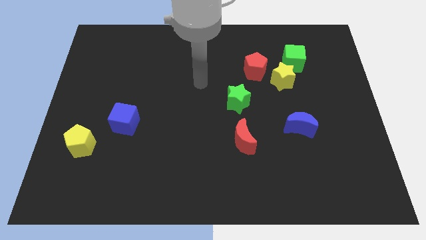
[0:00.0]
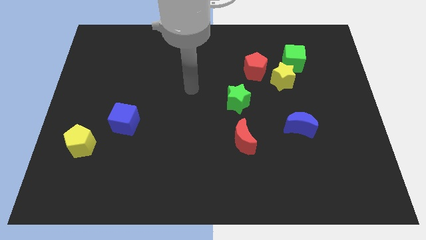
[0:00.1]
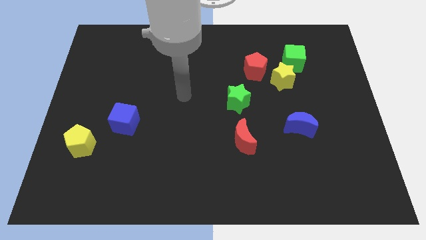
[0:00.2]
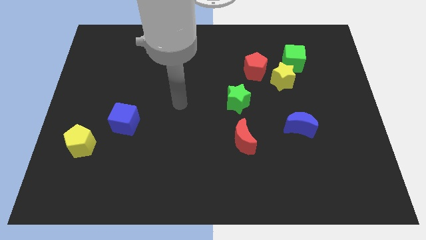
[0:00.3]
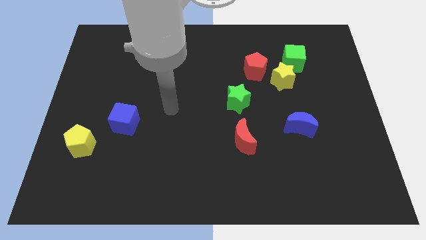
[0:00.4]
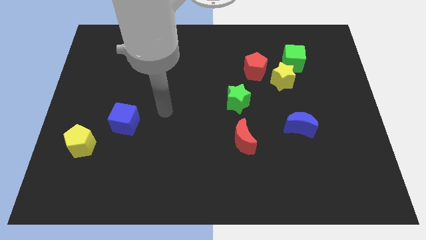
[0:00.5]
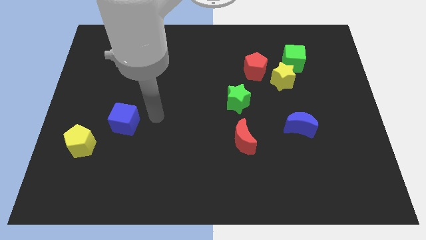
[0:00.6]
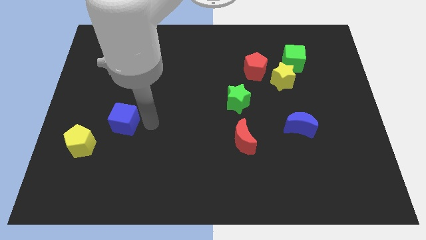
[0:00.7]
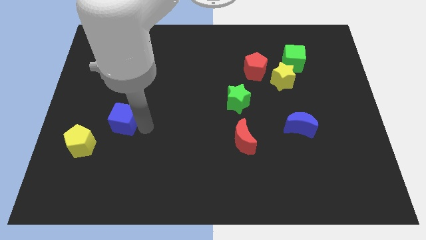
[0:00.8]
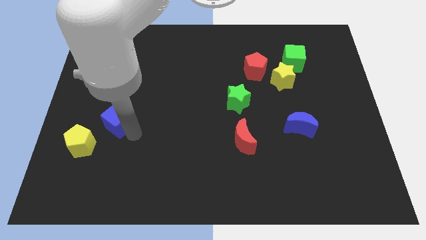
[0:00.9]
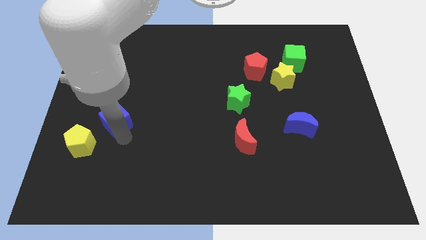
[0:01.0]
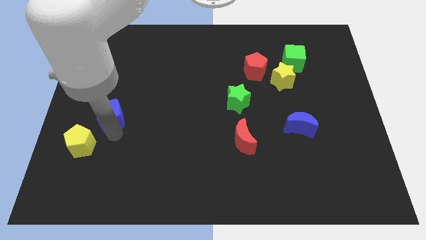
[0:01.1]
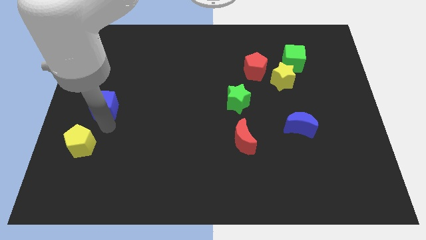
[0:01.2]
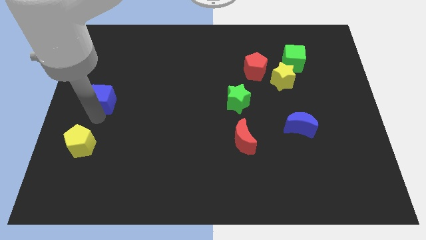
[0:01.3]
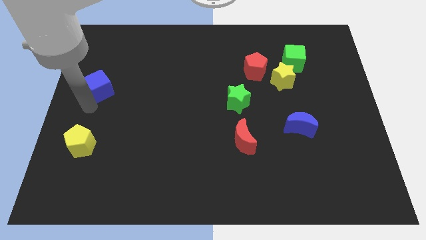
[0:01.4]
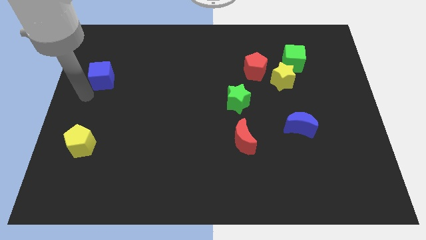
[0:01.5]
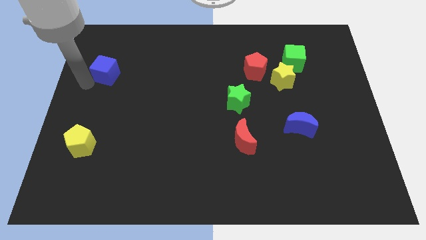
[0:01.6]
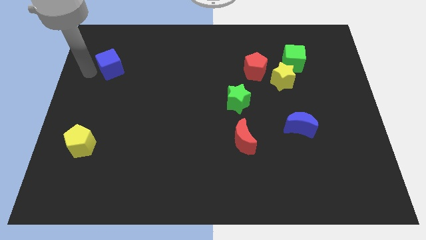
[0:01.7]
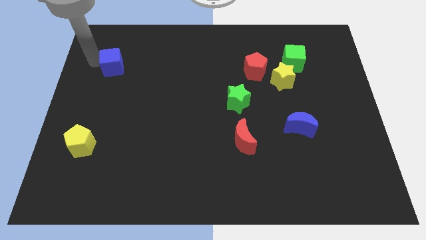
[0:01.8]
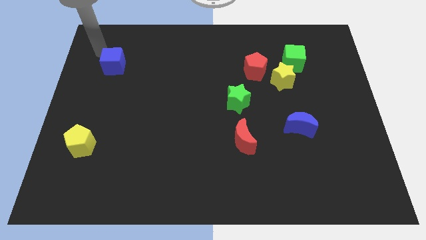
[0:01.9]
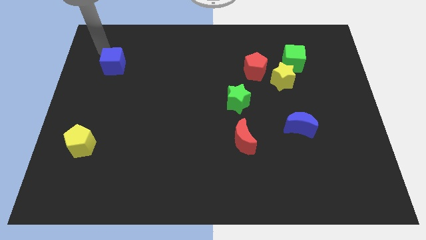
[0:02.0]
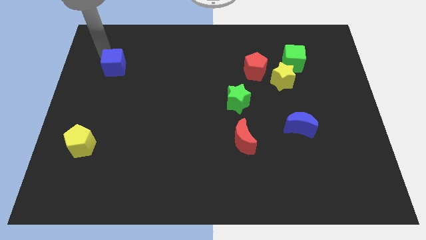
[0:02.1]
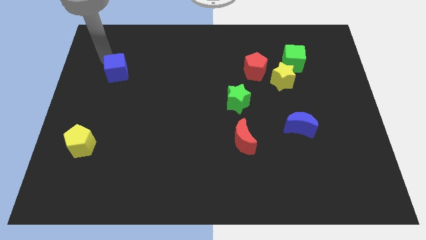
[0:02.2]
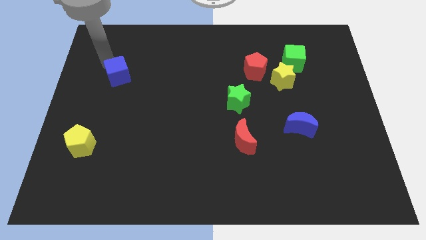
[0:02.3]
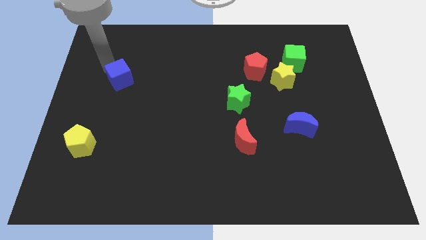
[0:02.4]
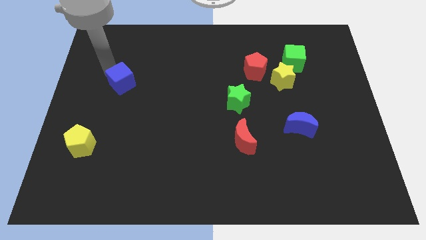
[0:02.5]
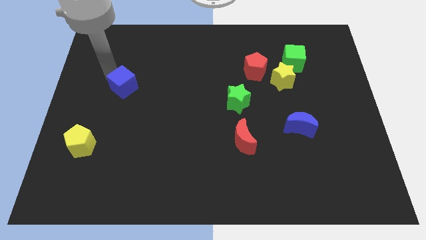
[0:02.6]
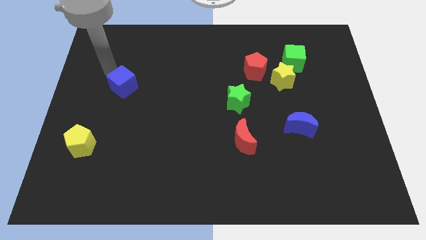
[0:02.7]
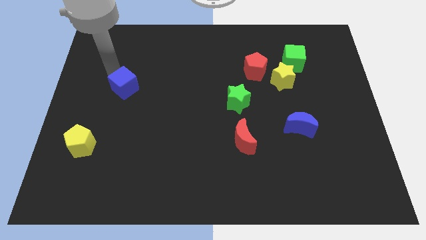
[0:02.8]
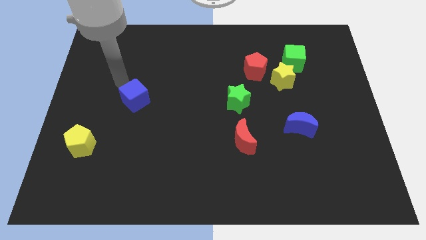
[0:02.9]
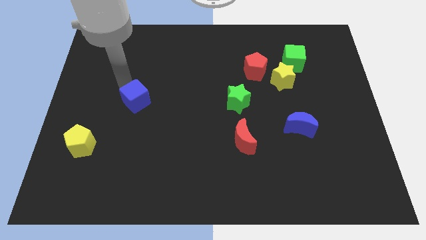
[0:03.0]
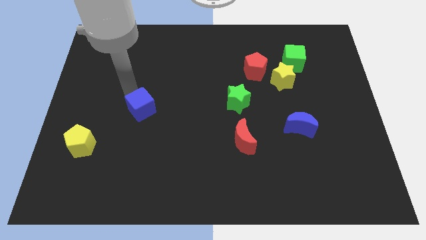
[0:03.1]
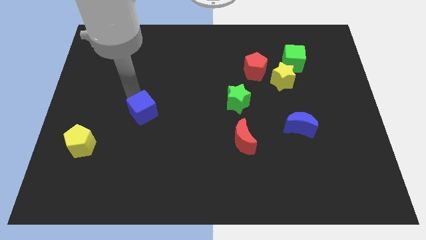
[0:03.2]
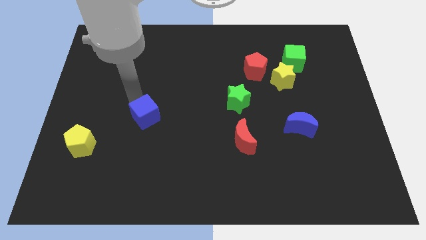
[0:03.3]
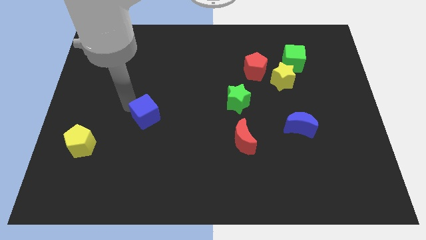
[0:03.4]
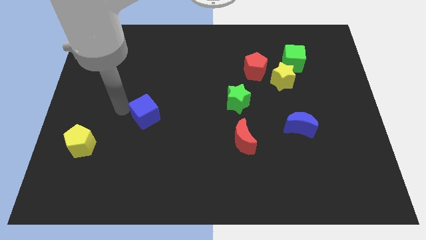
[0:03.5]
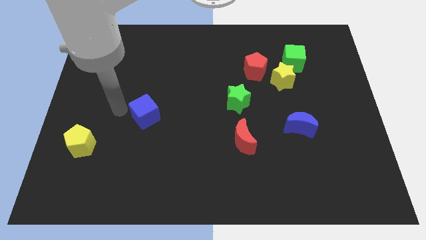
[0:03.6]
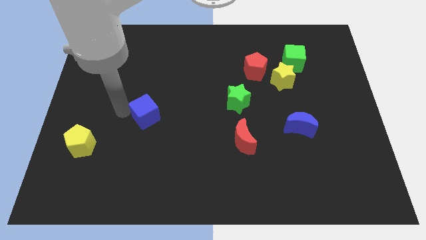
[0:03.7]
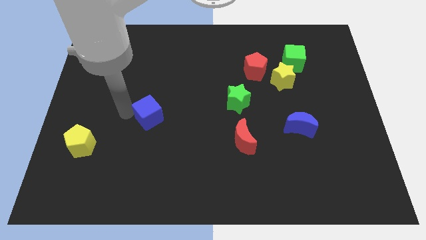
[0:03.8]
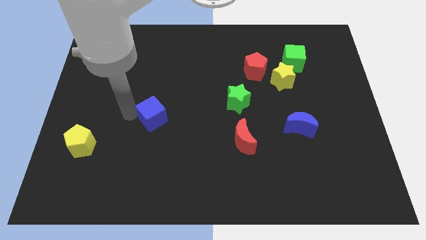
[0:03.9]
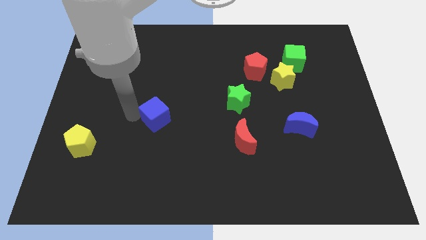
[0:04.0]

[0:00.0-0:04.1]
slide the blue cube to the right a bit

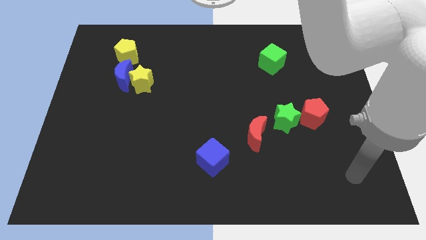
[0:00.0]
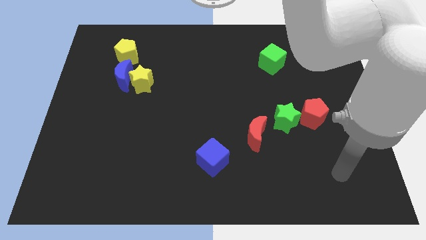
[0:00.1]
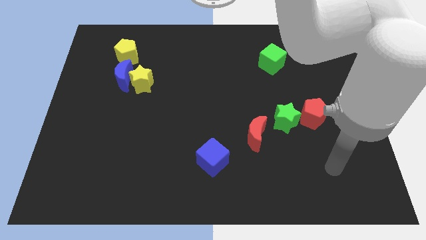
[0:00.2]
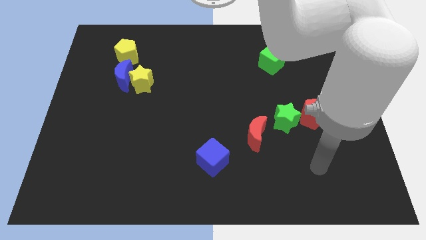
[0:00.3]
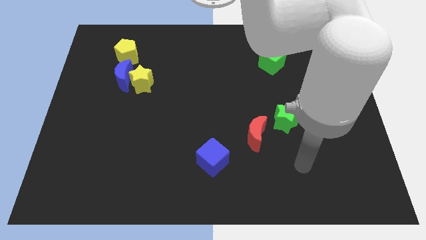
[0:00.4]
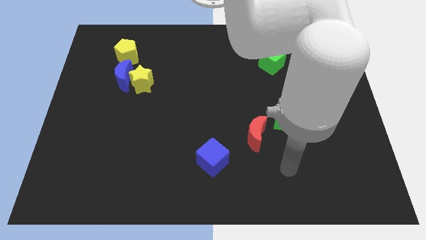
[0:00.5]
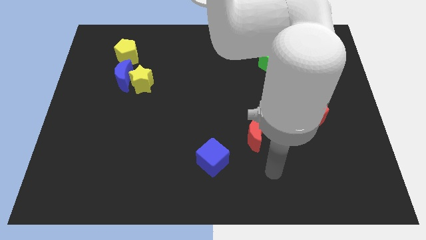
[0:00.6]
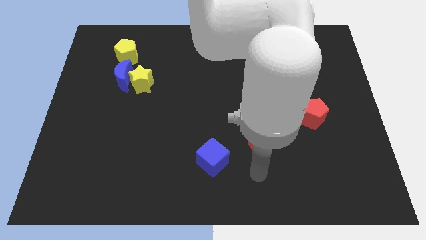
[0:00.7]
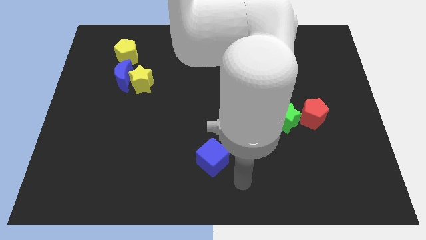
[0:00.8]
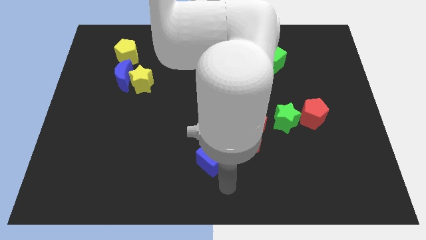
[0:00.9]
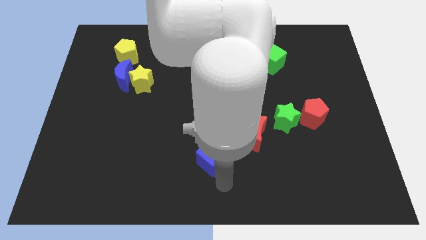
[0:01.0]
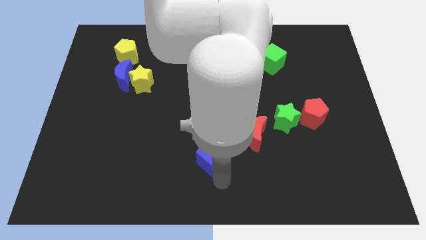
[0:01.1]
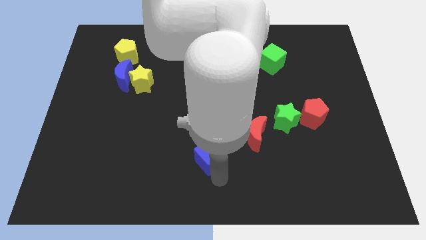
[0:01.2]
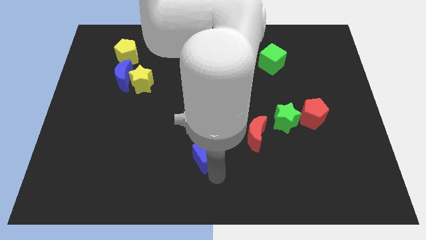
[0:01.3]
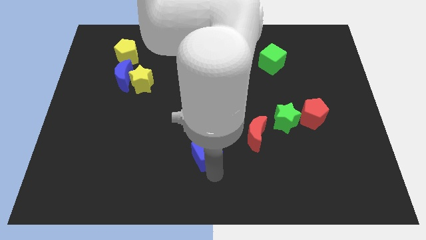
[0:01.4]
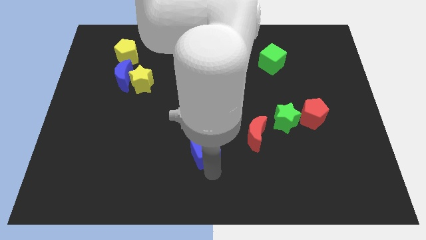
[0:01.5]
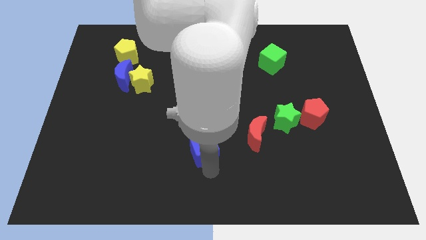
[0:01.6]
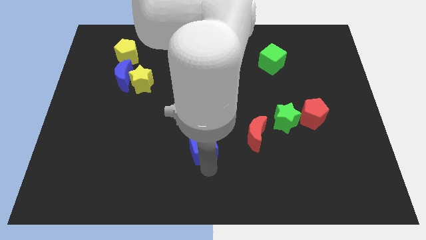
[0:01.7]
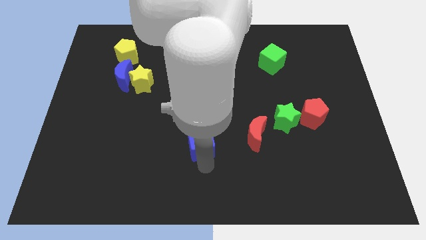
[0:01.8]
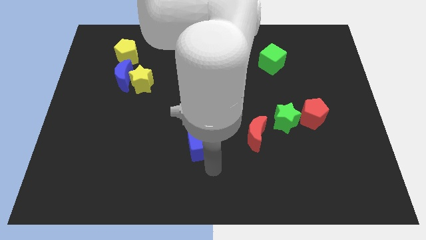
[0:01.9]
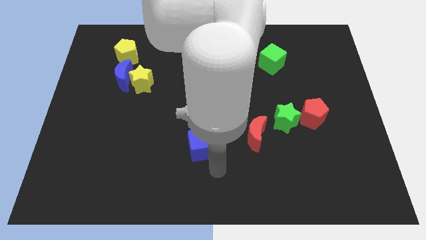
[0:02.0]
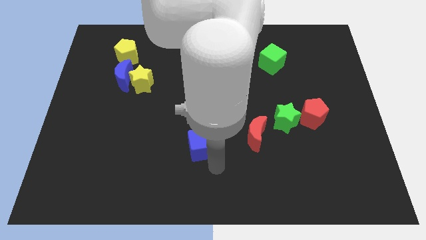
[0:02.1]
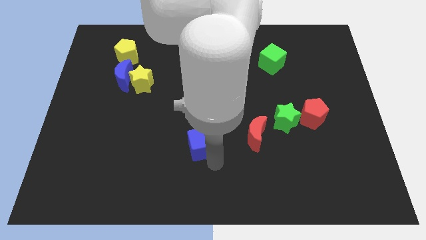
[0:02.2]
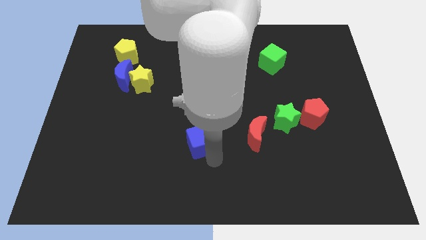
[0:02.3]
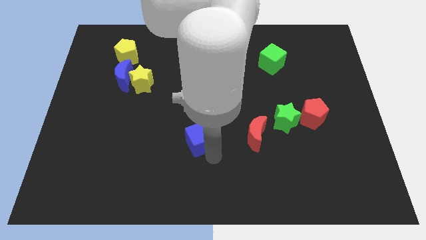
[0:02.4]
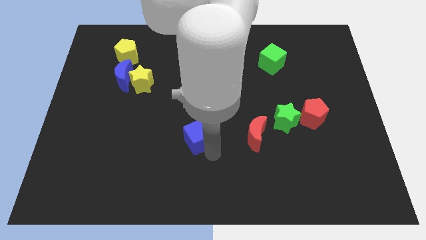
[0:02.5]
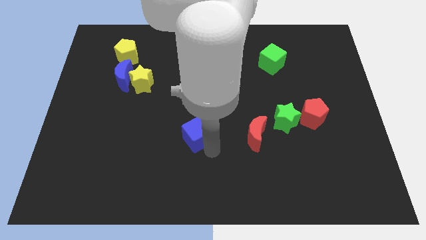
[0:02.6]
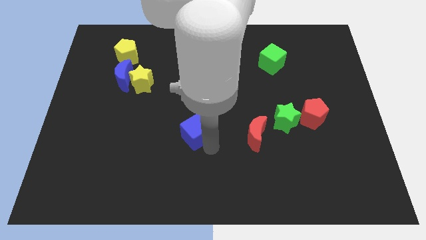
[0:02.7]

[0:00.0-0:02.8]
push the blue cube a bit diagonally upwards and left

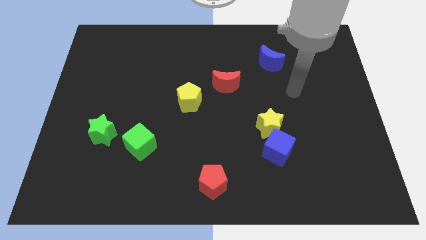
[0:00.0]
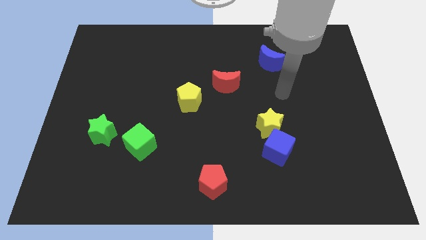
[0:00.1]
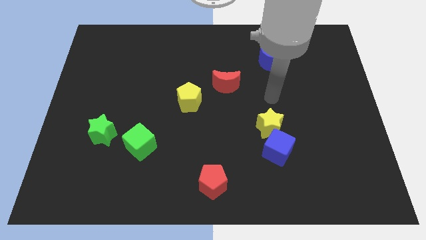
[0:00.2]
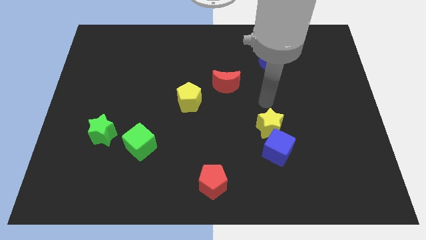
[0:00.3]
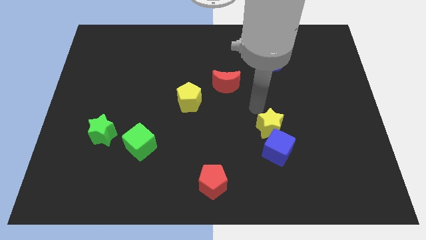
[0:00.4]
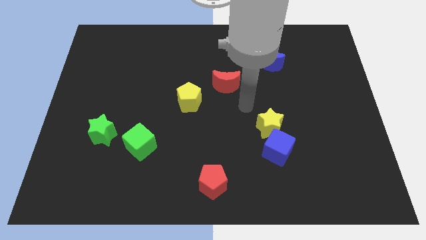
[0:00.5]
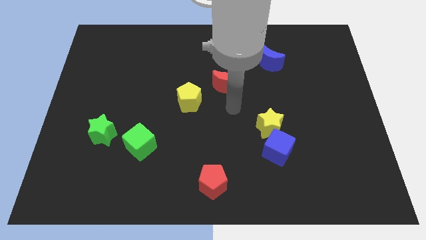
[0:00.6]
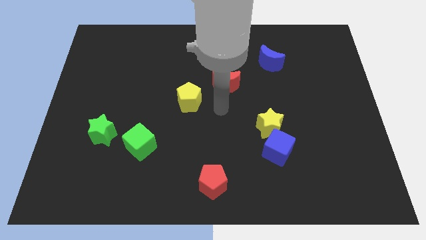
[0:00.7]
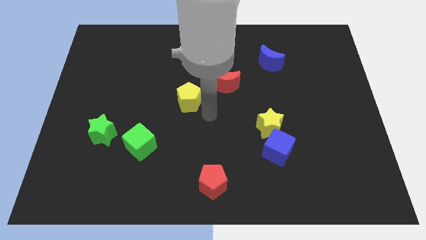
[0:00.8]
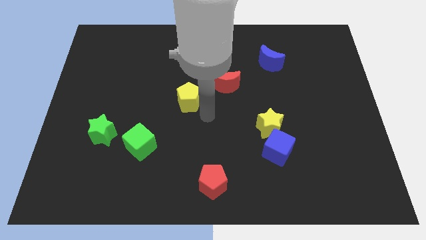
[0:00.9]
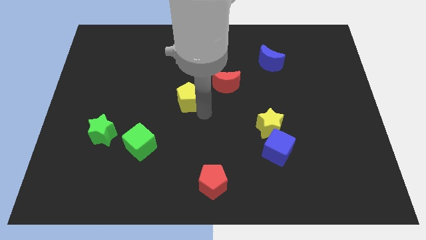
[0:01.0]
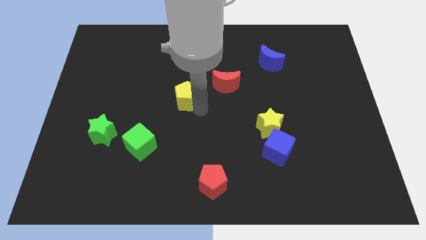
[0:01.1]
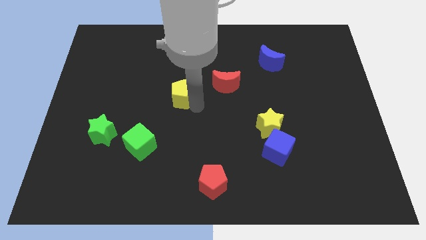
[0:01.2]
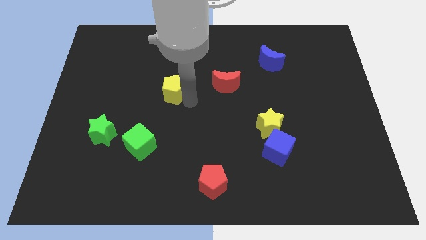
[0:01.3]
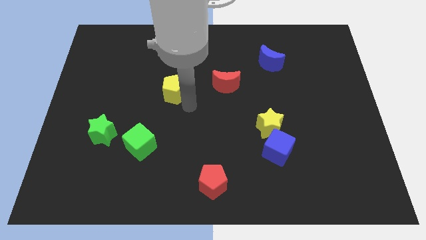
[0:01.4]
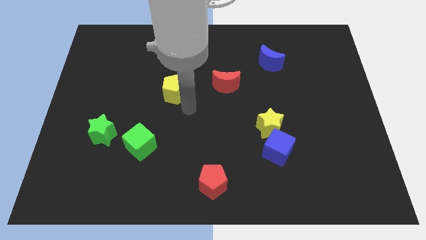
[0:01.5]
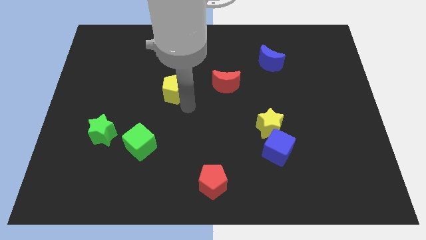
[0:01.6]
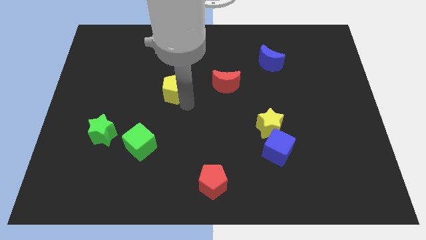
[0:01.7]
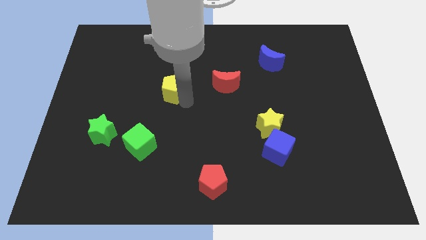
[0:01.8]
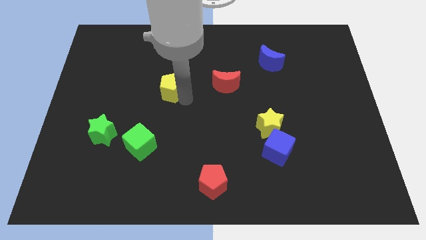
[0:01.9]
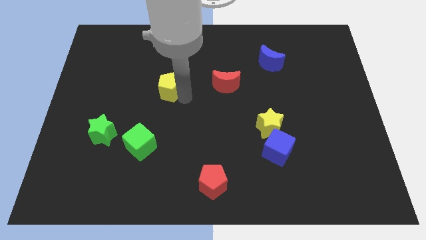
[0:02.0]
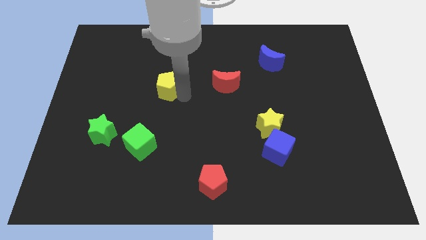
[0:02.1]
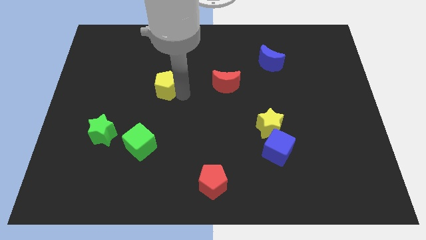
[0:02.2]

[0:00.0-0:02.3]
move the yellow pentagon upwards and left somewhat
